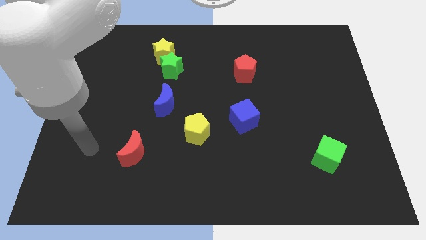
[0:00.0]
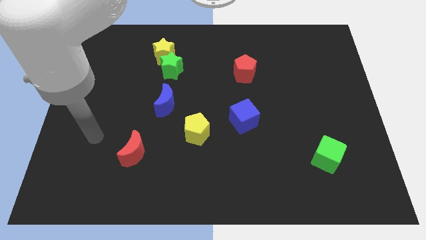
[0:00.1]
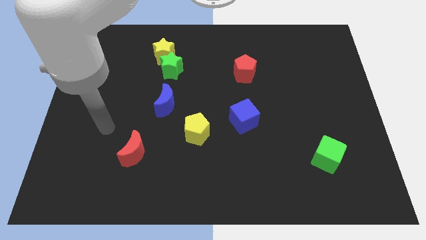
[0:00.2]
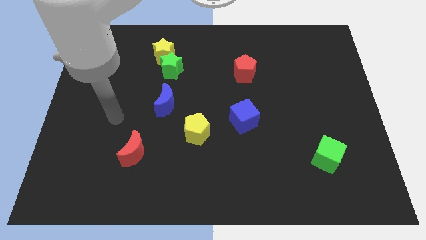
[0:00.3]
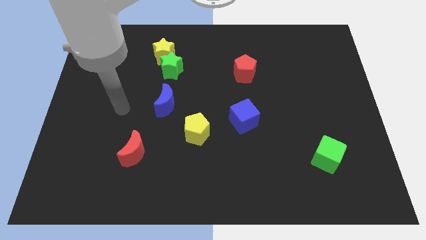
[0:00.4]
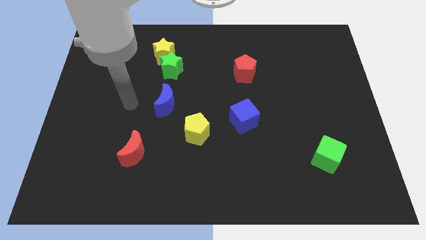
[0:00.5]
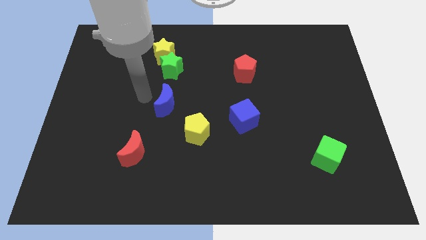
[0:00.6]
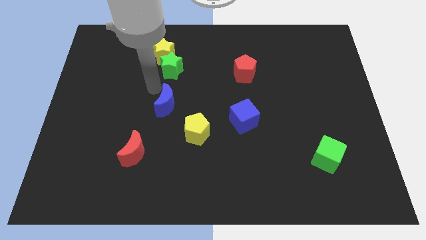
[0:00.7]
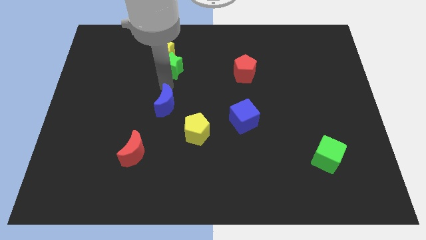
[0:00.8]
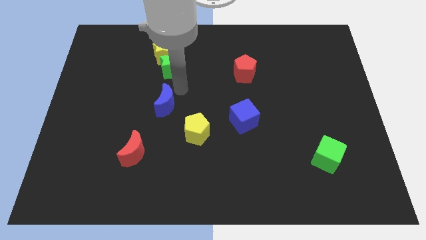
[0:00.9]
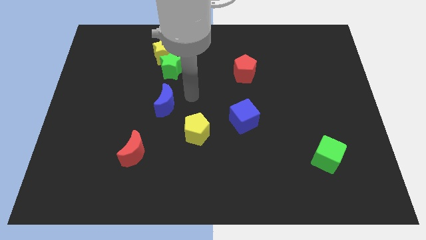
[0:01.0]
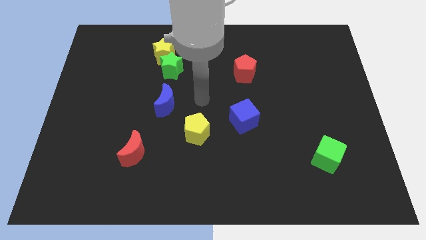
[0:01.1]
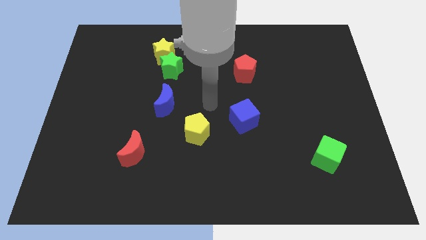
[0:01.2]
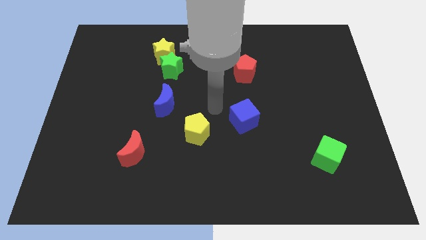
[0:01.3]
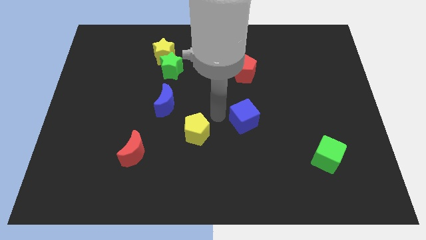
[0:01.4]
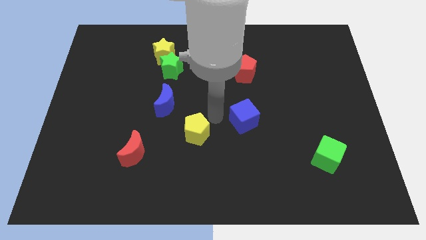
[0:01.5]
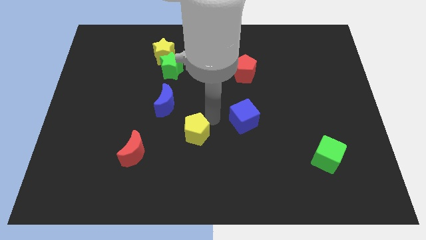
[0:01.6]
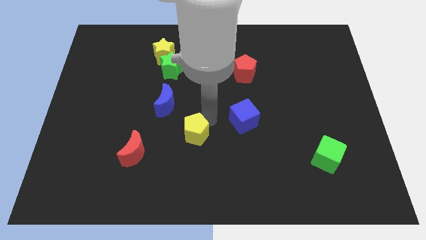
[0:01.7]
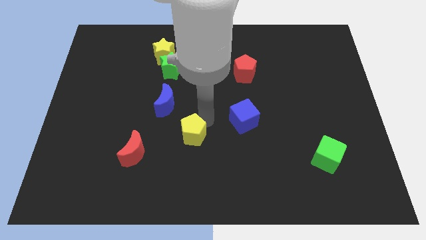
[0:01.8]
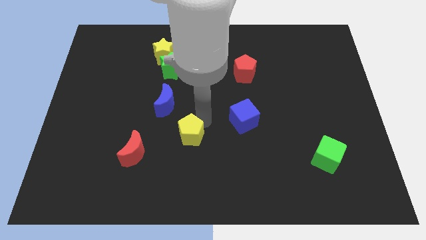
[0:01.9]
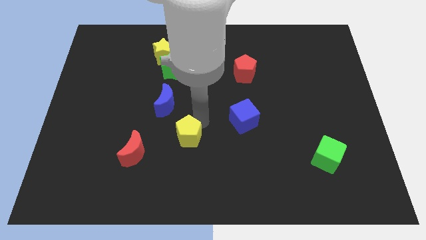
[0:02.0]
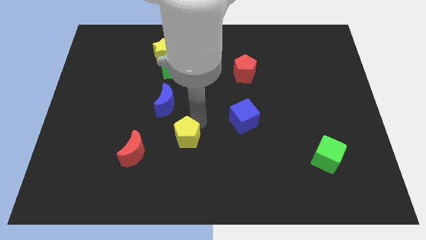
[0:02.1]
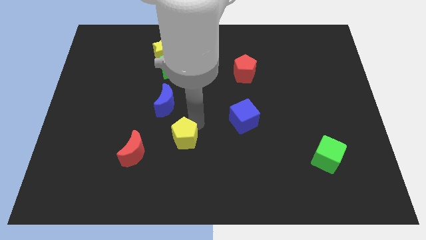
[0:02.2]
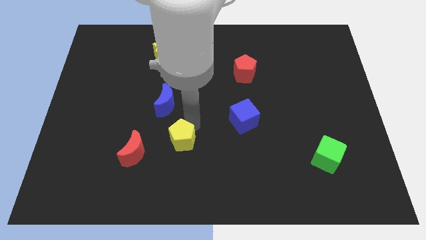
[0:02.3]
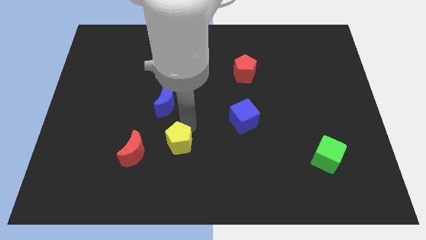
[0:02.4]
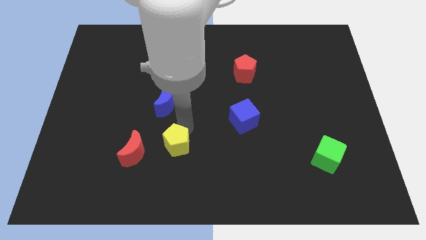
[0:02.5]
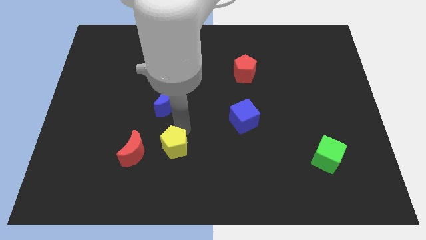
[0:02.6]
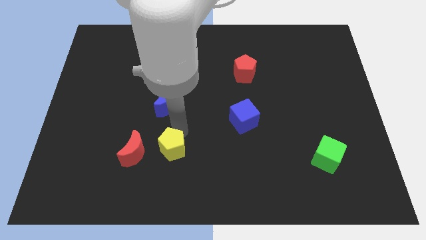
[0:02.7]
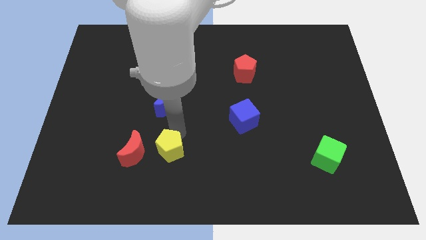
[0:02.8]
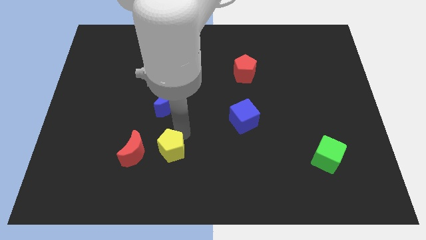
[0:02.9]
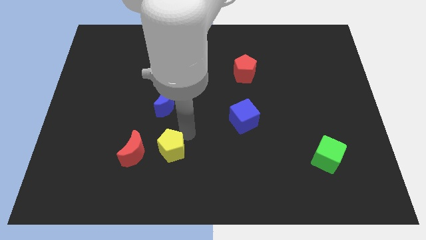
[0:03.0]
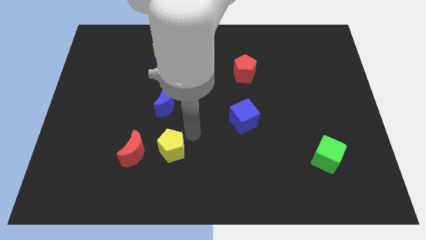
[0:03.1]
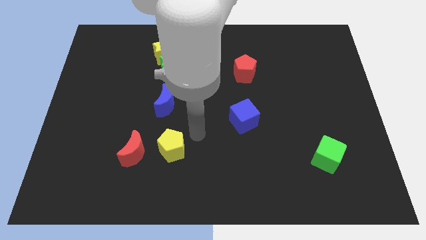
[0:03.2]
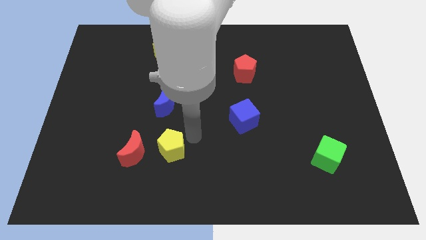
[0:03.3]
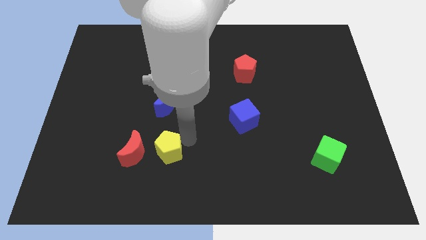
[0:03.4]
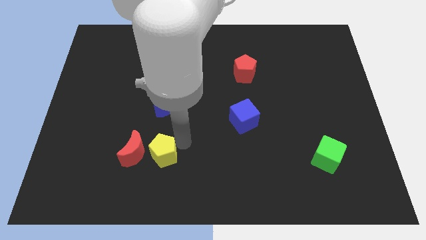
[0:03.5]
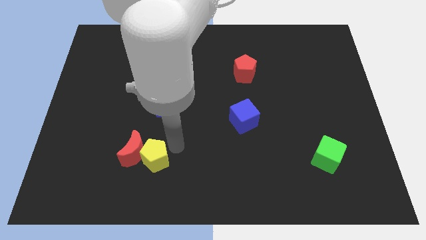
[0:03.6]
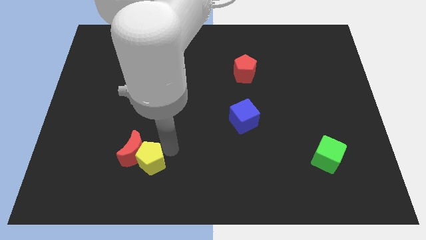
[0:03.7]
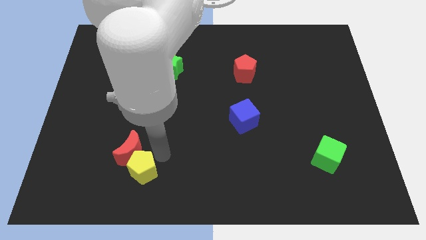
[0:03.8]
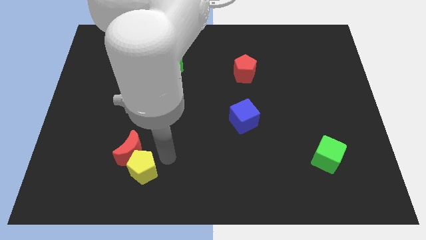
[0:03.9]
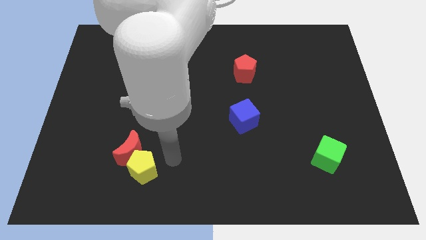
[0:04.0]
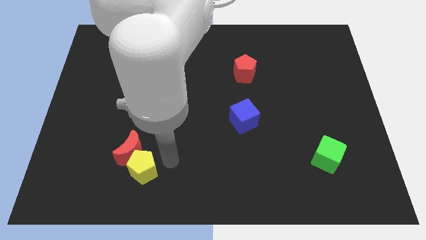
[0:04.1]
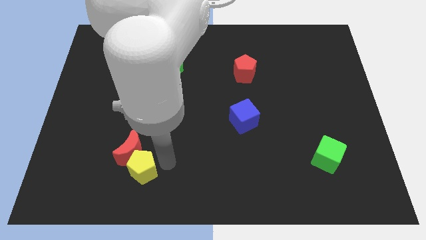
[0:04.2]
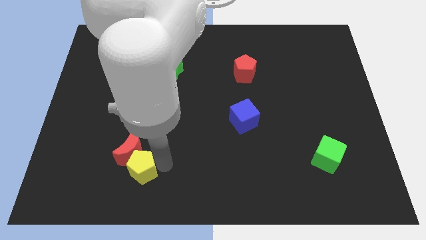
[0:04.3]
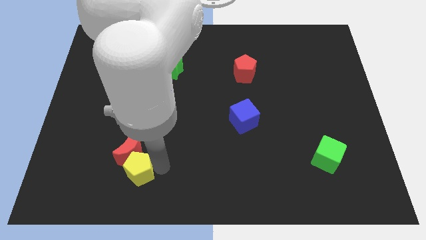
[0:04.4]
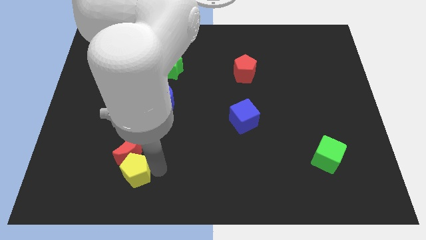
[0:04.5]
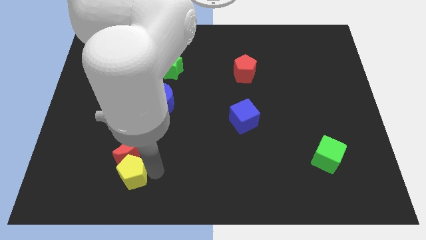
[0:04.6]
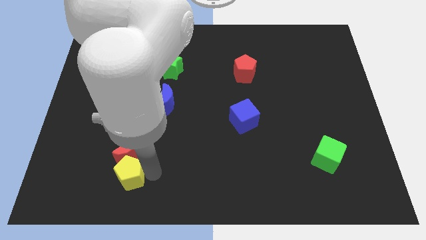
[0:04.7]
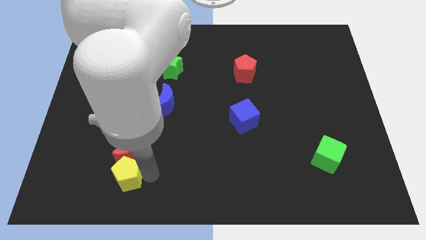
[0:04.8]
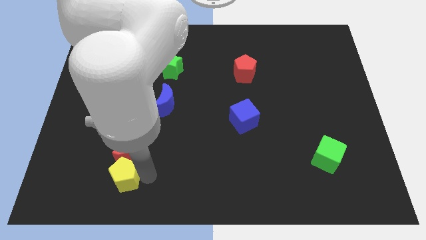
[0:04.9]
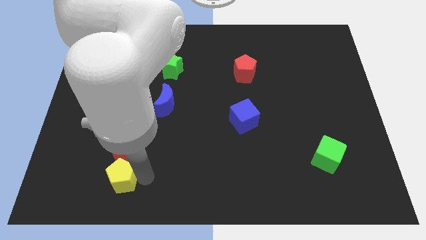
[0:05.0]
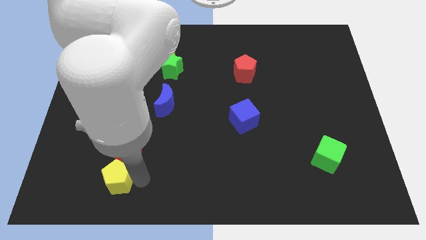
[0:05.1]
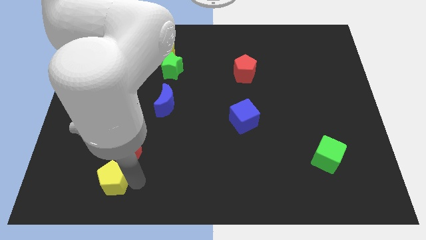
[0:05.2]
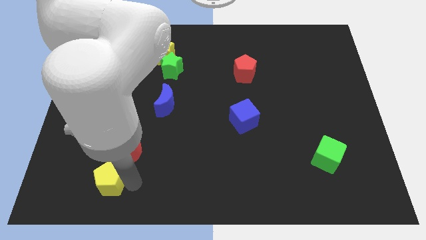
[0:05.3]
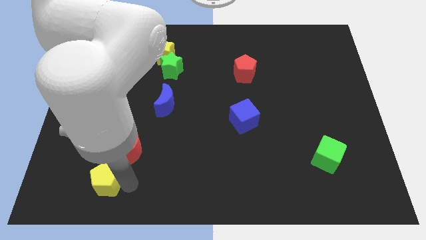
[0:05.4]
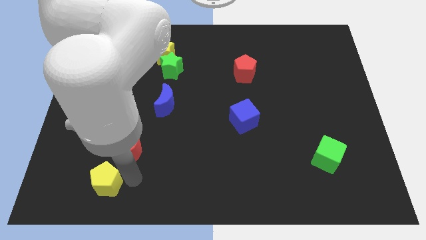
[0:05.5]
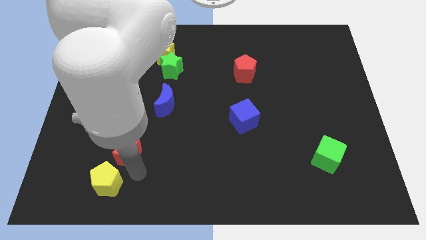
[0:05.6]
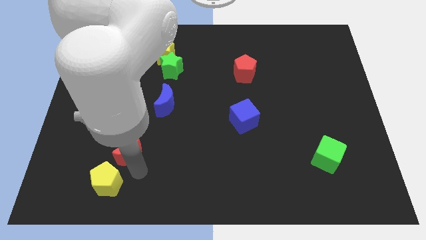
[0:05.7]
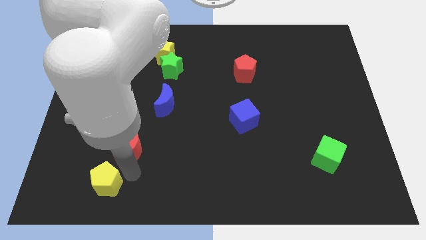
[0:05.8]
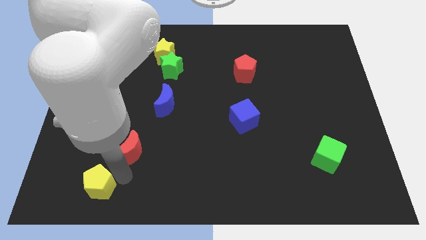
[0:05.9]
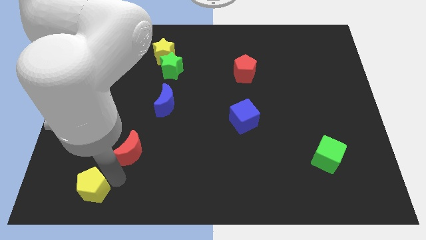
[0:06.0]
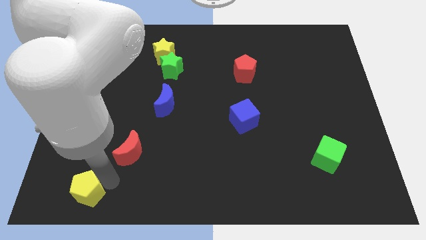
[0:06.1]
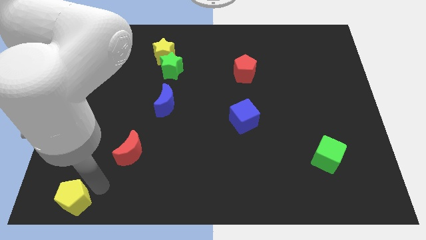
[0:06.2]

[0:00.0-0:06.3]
push the yellow pentagon to the bottom left

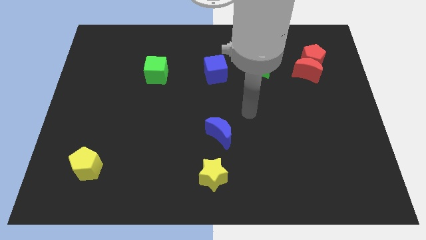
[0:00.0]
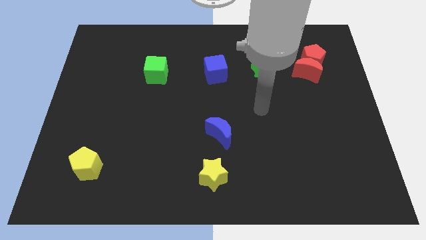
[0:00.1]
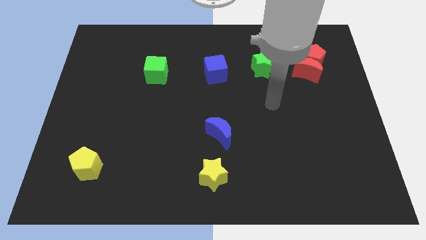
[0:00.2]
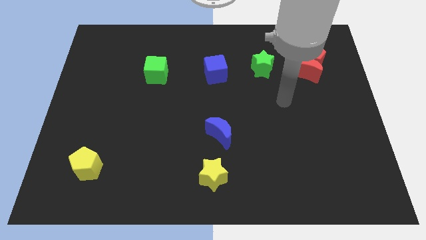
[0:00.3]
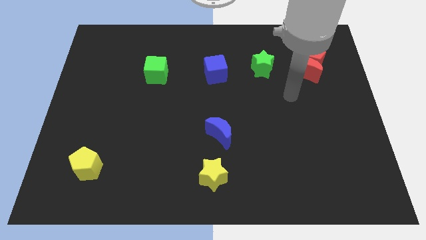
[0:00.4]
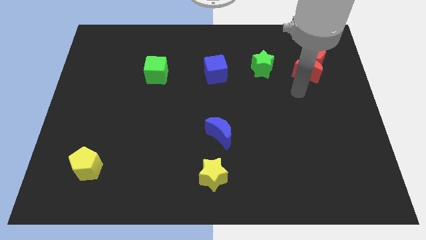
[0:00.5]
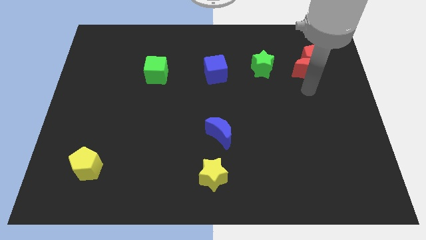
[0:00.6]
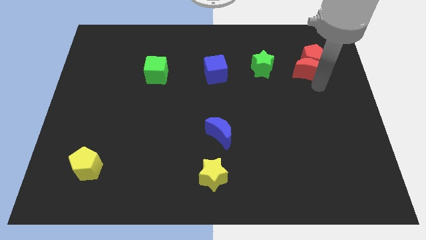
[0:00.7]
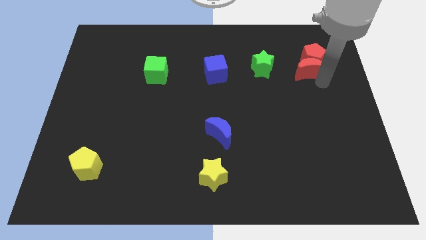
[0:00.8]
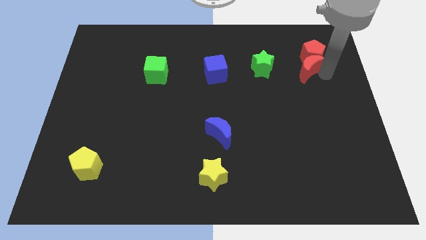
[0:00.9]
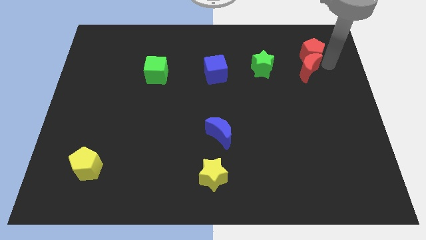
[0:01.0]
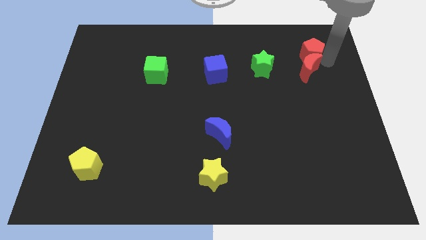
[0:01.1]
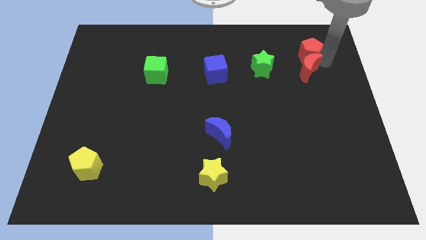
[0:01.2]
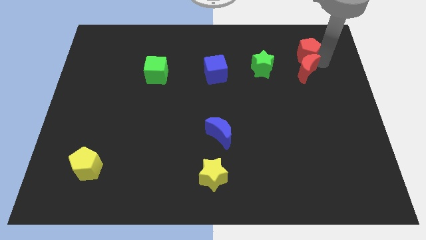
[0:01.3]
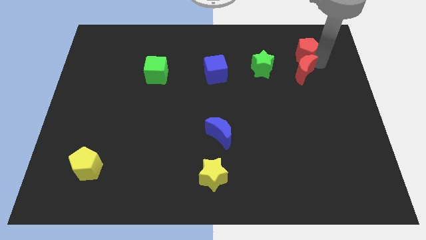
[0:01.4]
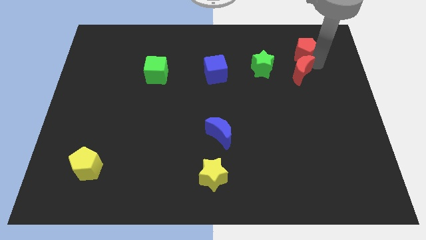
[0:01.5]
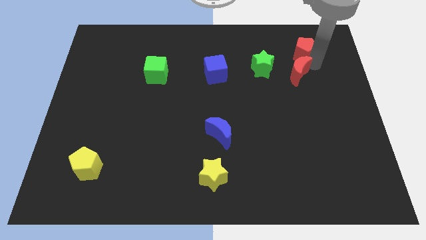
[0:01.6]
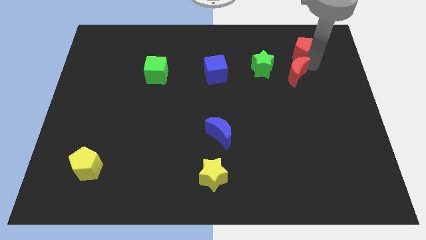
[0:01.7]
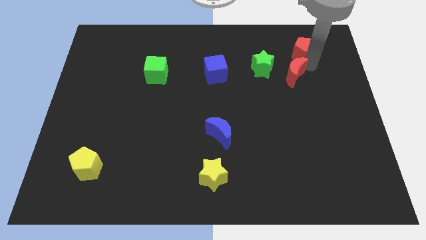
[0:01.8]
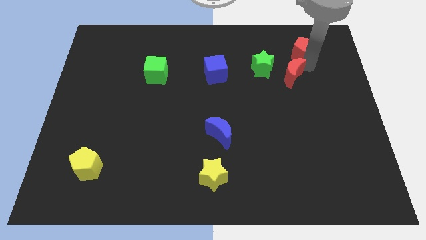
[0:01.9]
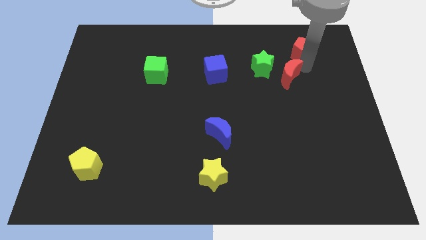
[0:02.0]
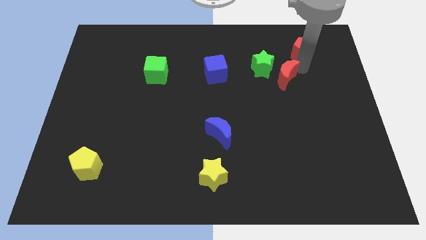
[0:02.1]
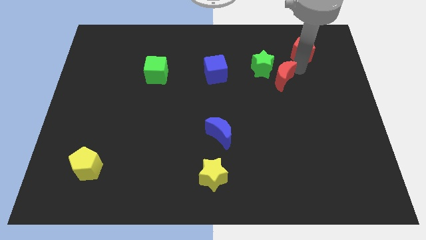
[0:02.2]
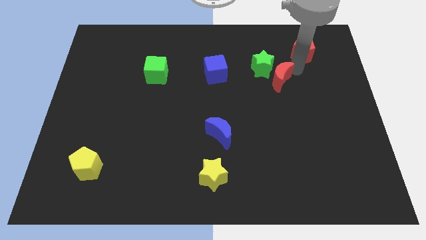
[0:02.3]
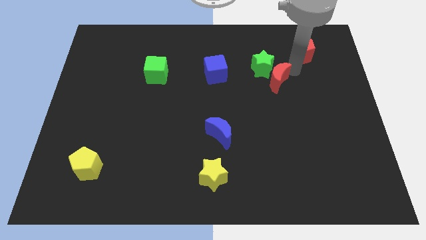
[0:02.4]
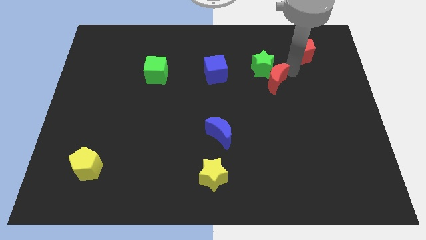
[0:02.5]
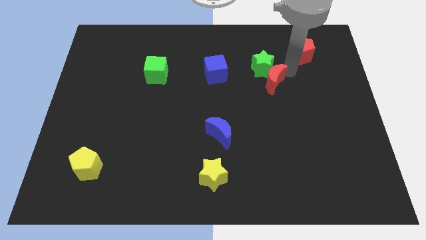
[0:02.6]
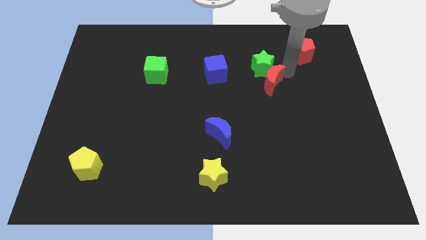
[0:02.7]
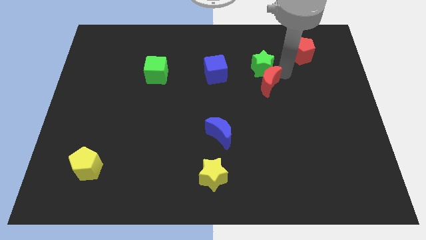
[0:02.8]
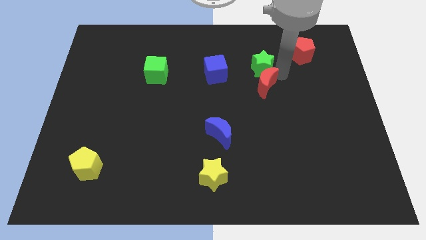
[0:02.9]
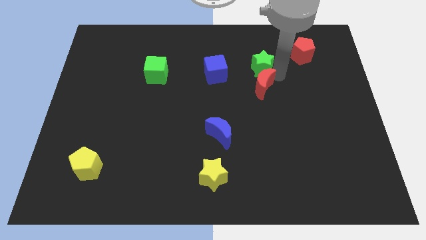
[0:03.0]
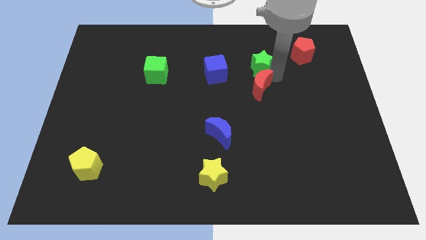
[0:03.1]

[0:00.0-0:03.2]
put the red moon to the center of the board
